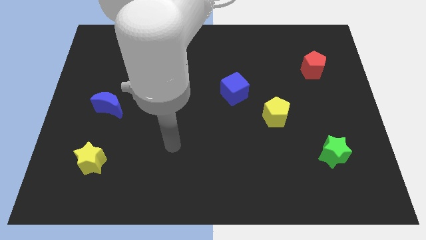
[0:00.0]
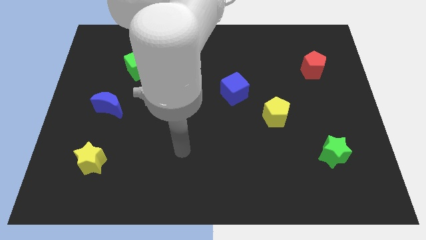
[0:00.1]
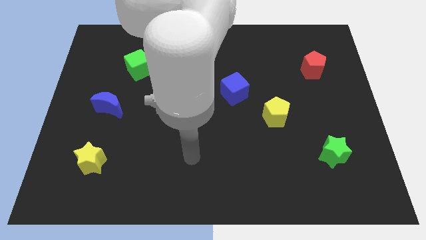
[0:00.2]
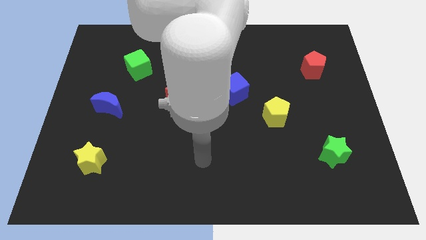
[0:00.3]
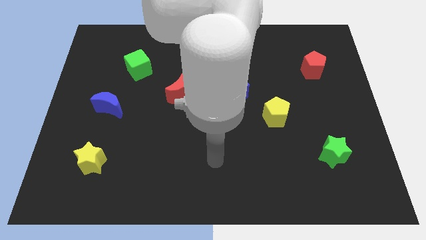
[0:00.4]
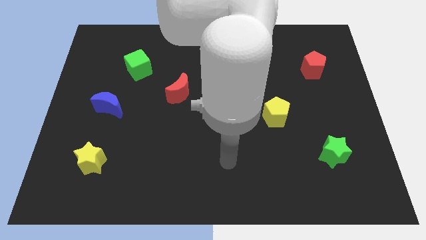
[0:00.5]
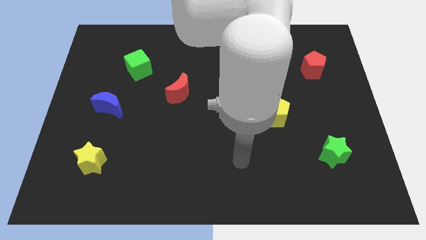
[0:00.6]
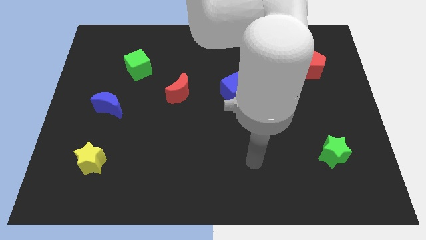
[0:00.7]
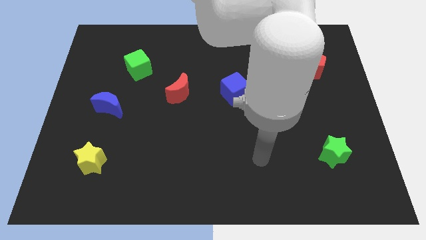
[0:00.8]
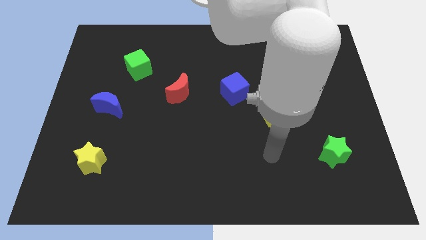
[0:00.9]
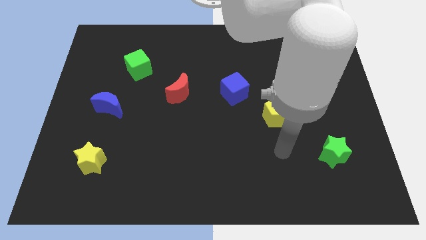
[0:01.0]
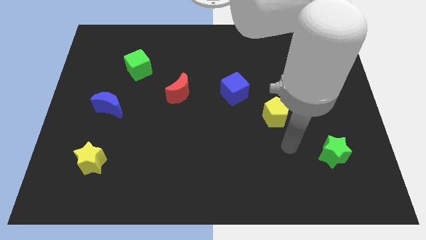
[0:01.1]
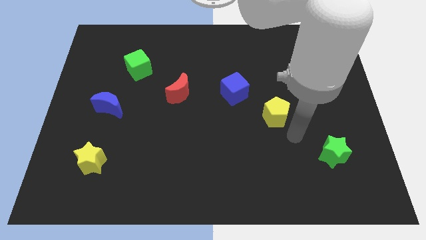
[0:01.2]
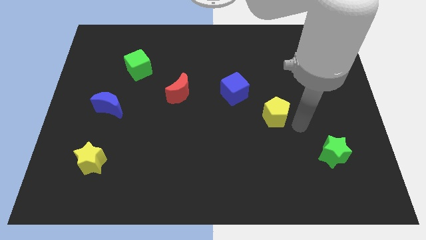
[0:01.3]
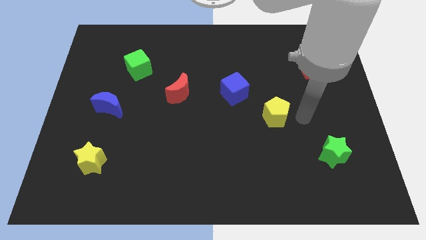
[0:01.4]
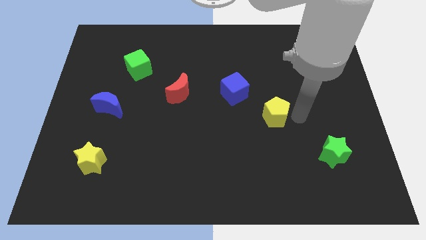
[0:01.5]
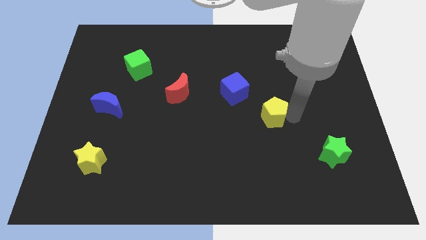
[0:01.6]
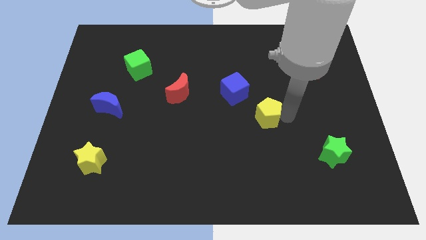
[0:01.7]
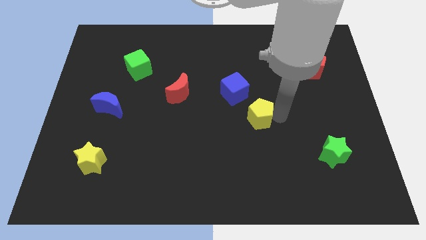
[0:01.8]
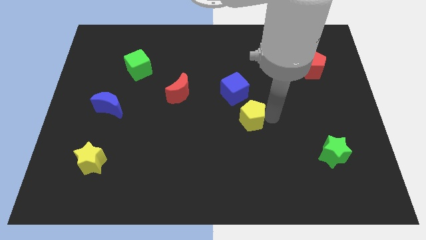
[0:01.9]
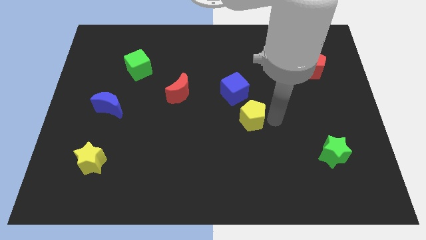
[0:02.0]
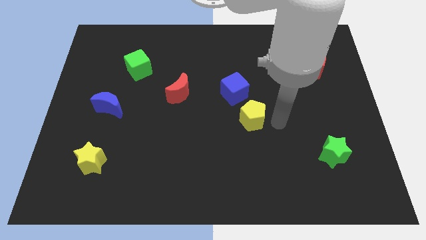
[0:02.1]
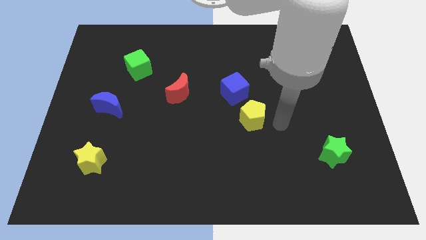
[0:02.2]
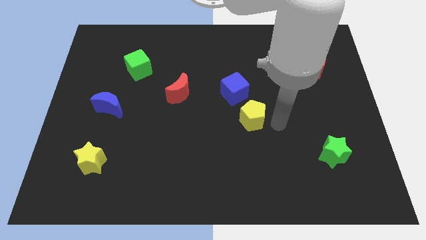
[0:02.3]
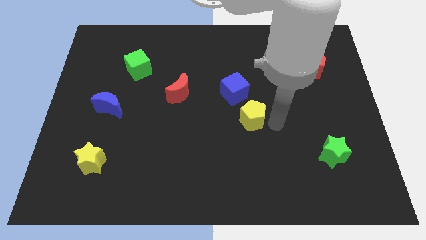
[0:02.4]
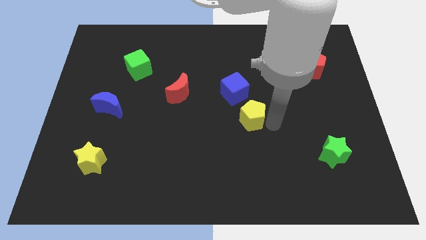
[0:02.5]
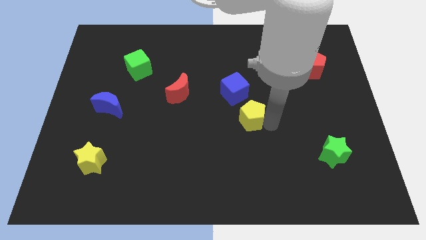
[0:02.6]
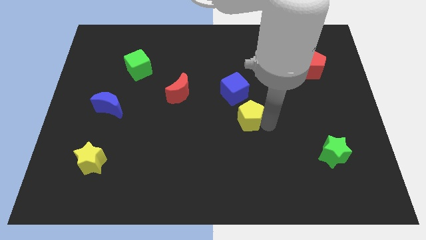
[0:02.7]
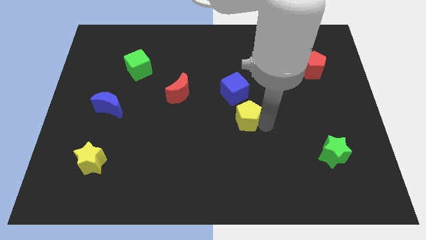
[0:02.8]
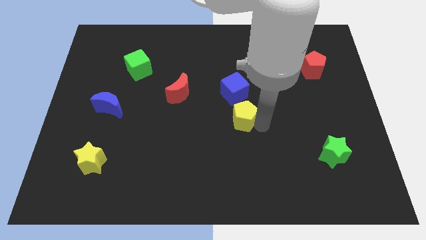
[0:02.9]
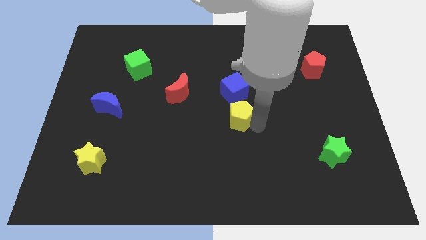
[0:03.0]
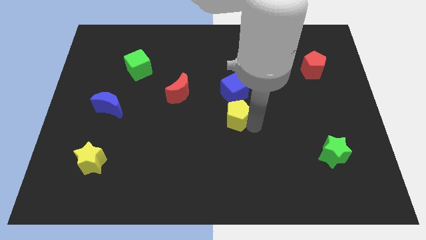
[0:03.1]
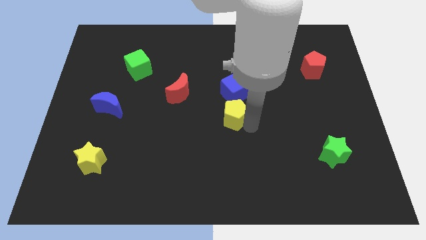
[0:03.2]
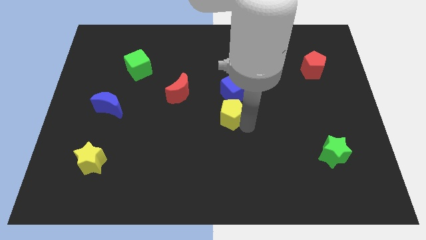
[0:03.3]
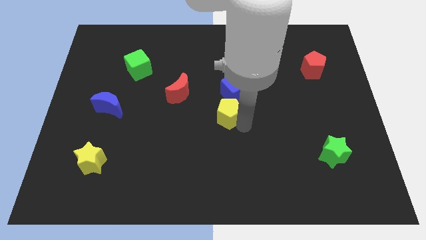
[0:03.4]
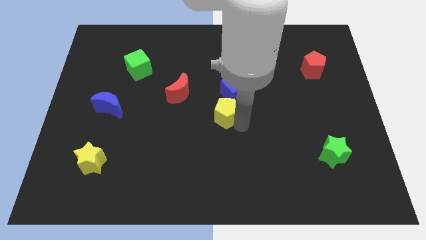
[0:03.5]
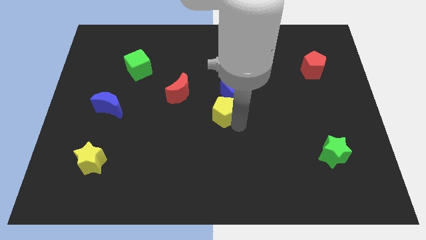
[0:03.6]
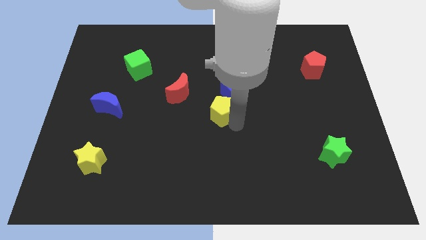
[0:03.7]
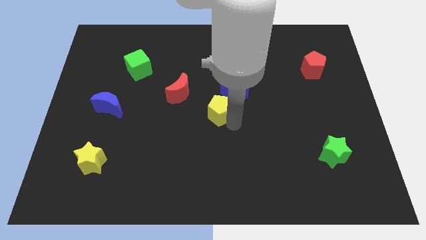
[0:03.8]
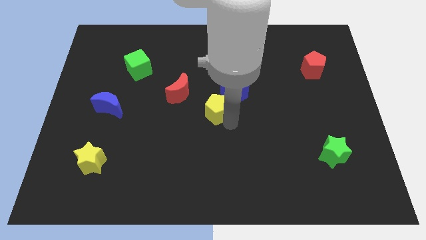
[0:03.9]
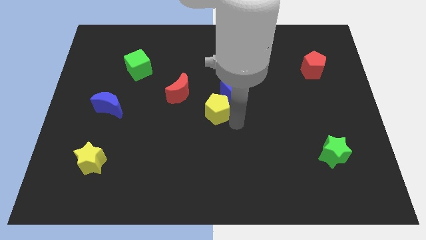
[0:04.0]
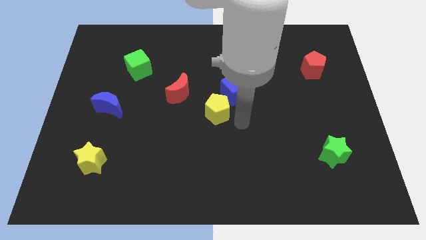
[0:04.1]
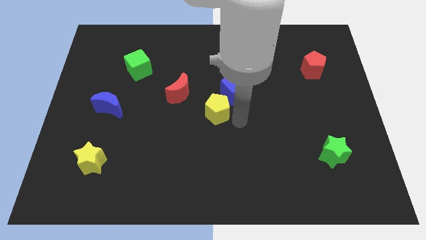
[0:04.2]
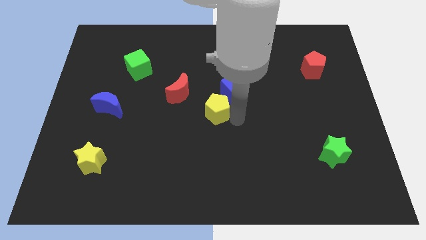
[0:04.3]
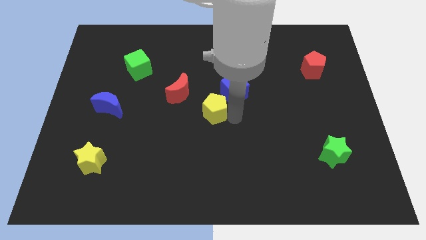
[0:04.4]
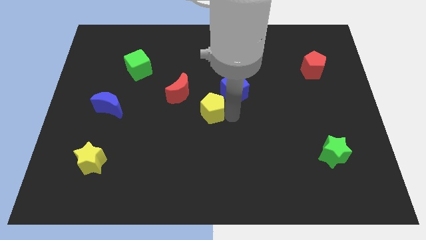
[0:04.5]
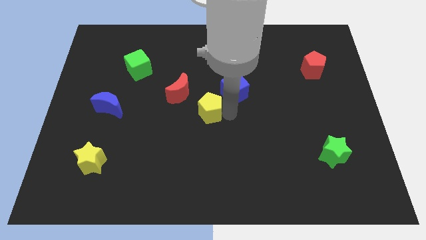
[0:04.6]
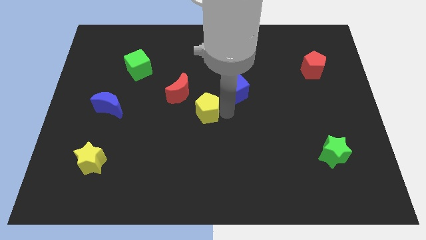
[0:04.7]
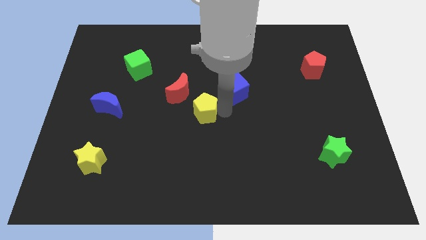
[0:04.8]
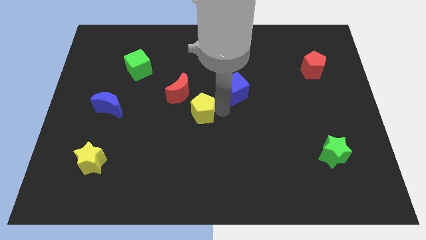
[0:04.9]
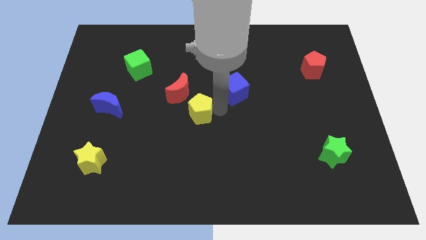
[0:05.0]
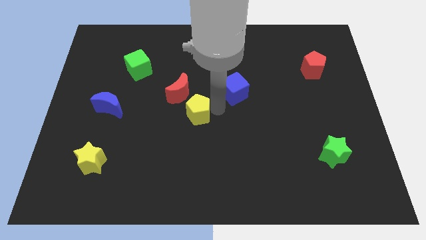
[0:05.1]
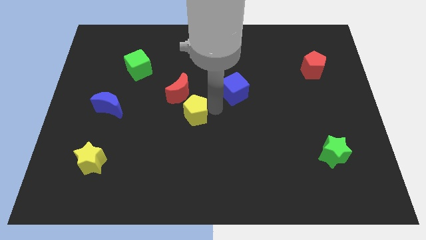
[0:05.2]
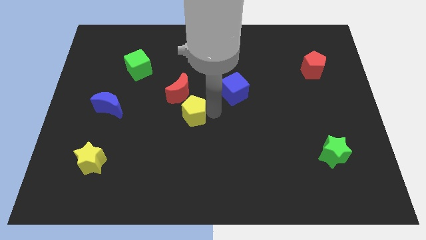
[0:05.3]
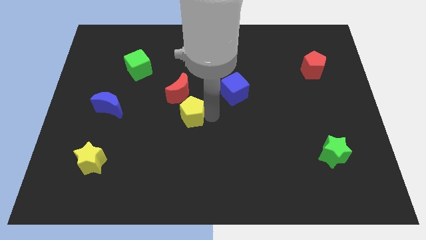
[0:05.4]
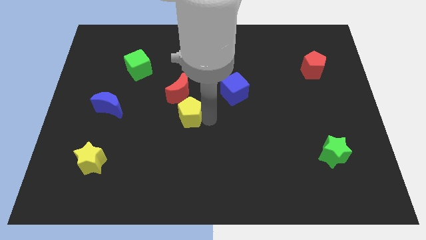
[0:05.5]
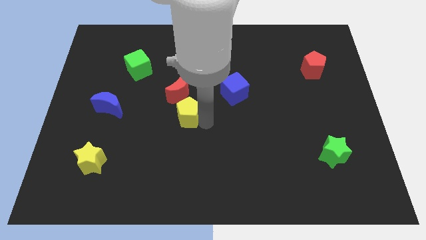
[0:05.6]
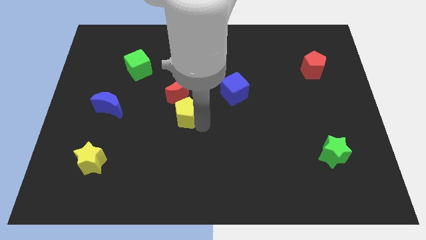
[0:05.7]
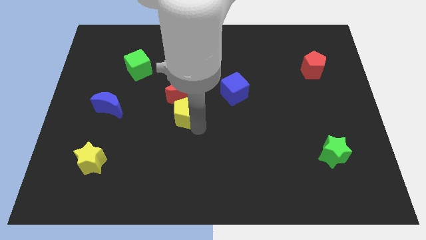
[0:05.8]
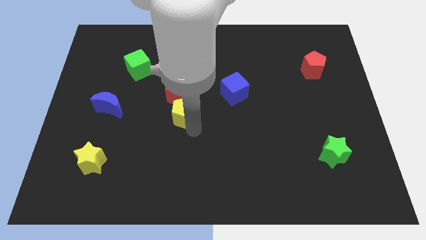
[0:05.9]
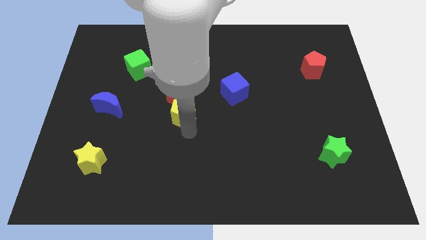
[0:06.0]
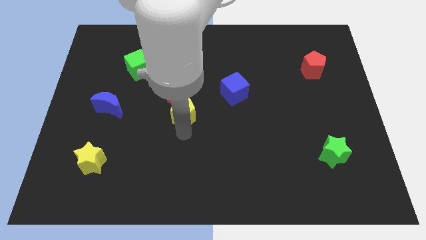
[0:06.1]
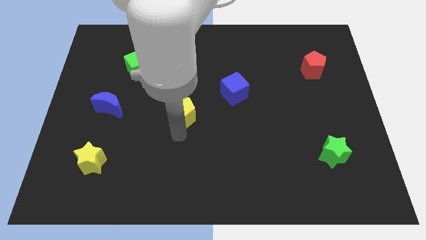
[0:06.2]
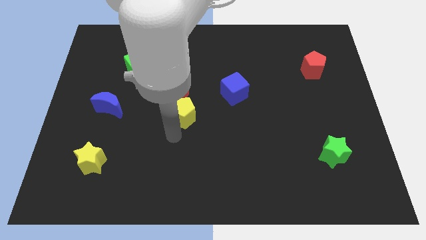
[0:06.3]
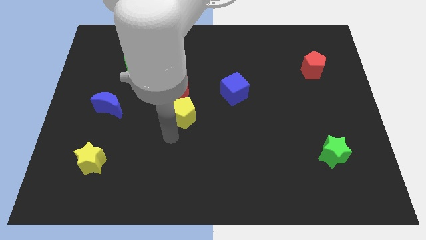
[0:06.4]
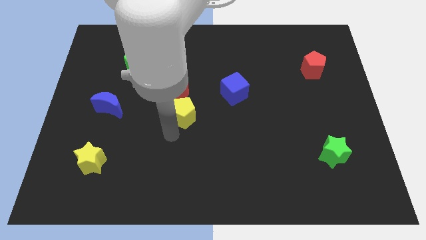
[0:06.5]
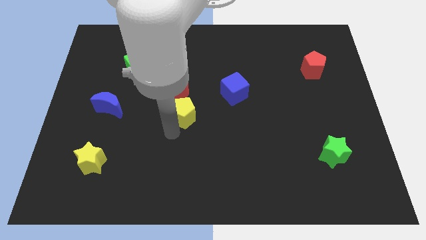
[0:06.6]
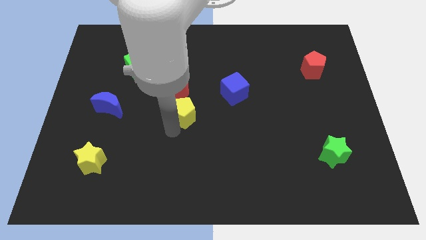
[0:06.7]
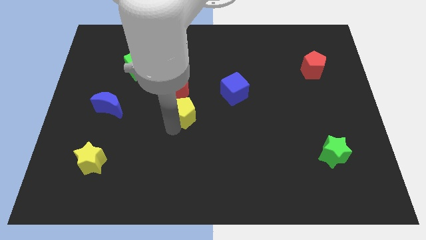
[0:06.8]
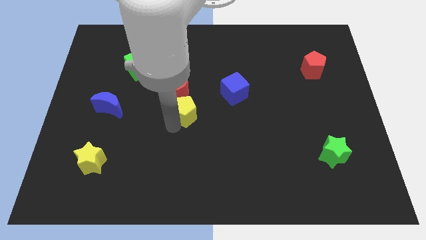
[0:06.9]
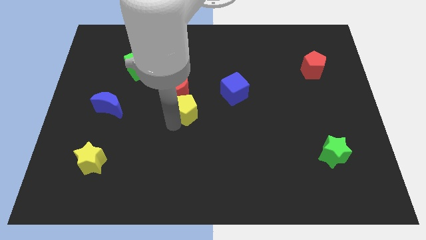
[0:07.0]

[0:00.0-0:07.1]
push the yellow pentagon close to the red moon
